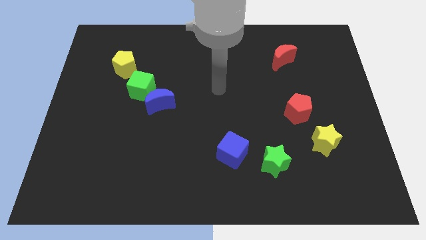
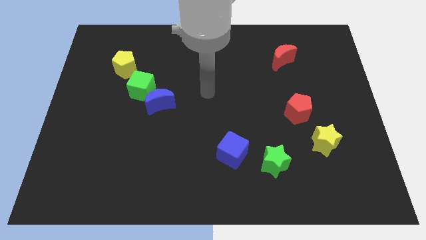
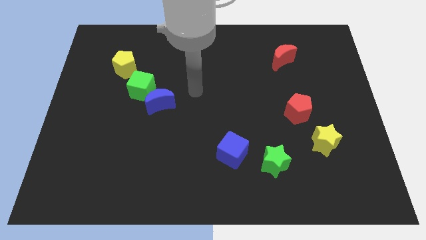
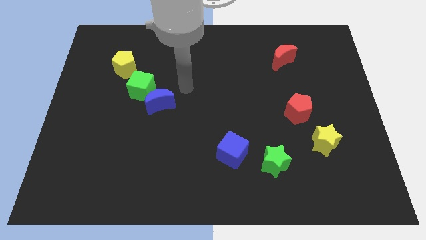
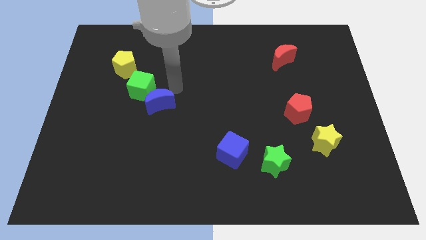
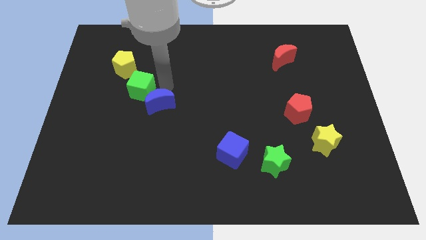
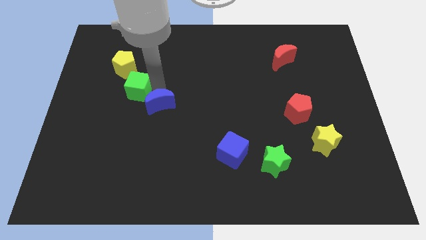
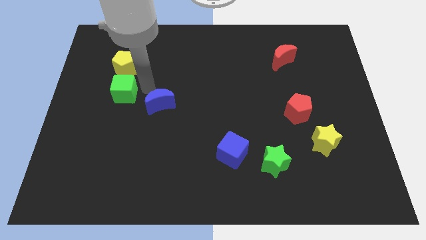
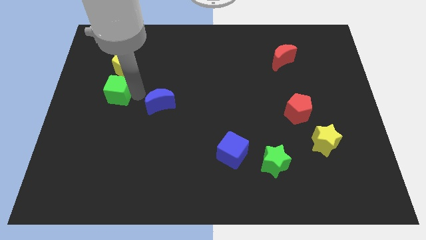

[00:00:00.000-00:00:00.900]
separate the blue moon from the green cube

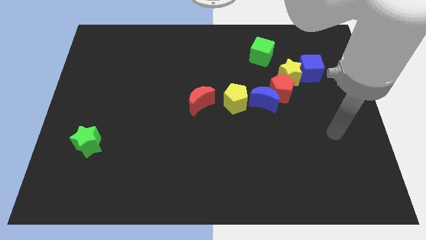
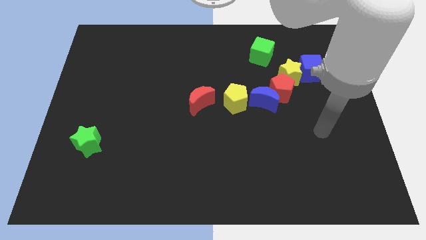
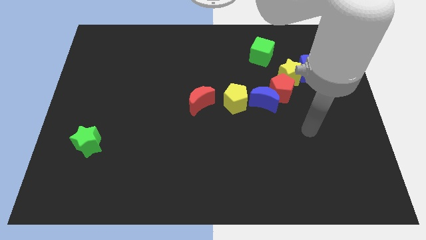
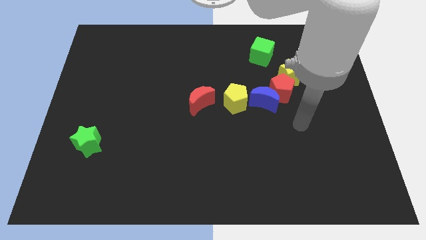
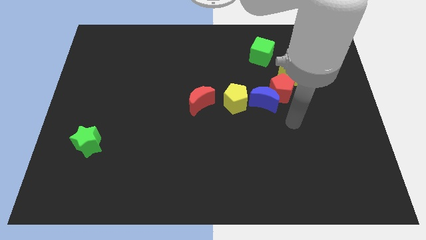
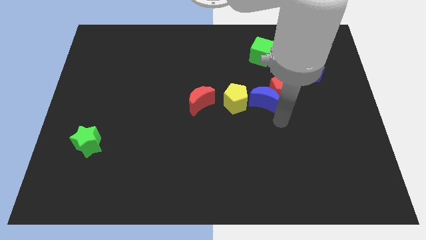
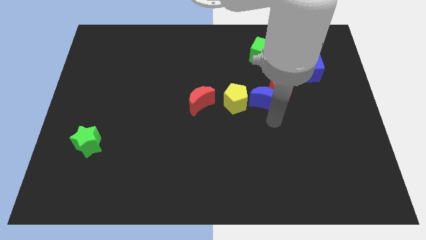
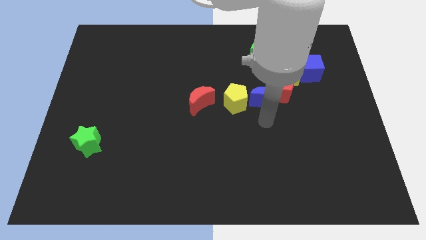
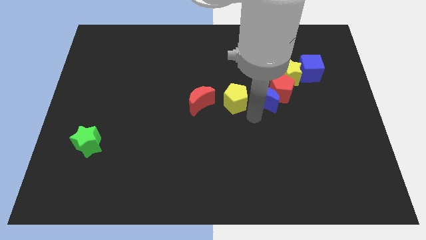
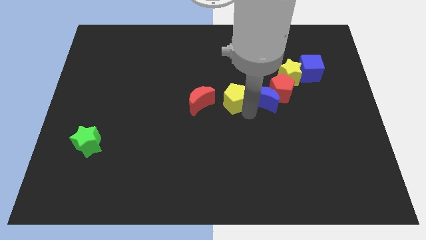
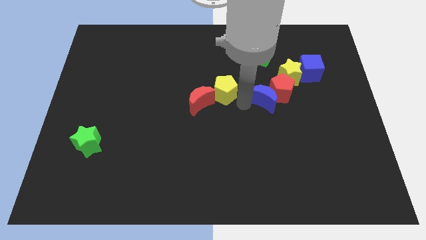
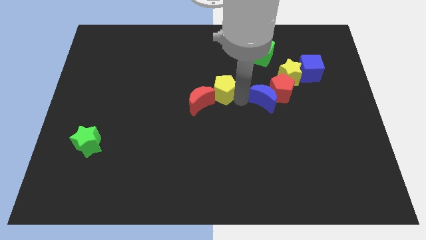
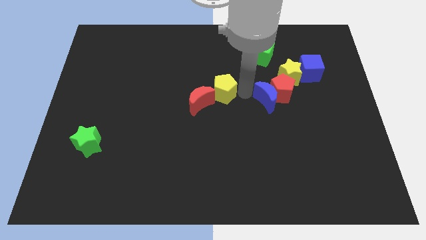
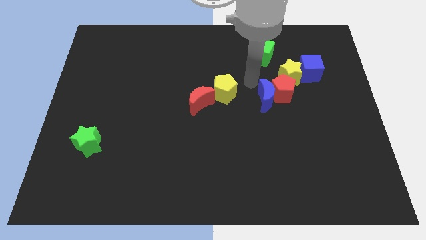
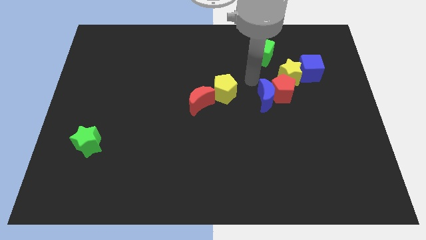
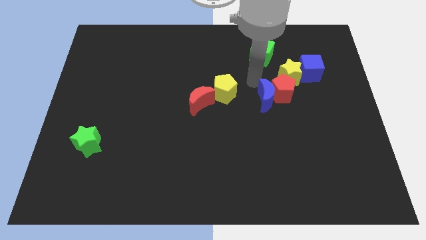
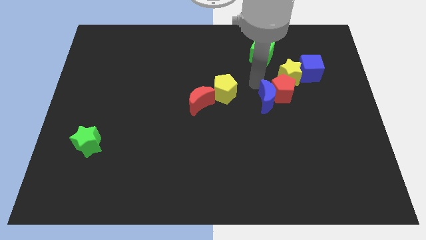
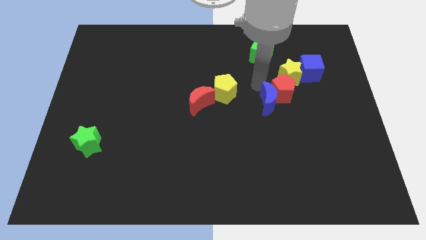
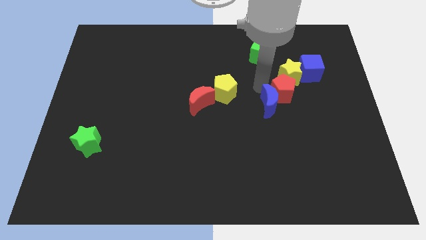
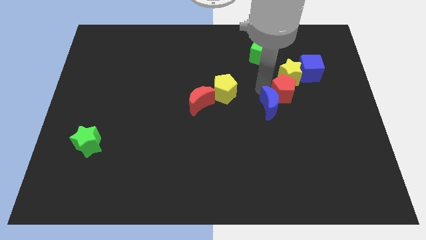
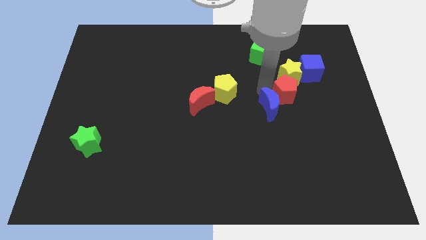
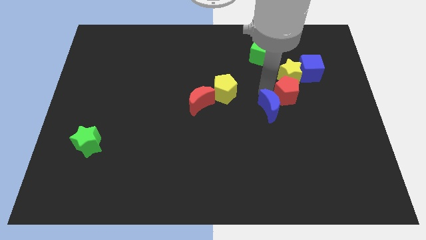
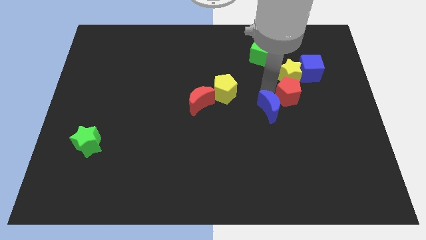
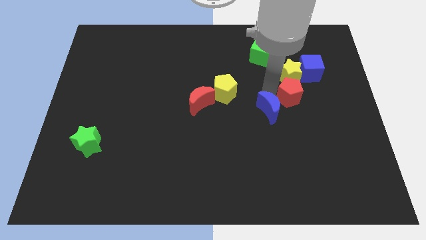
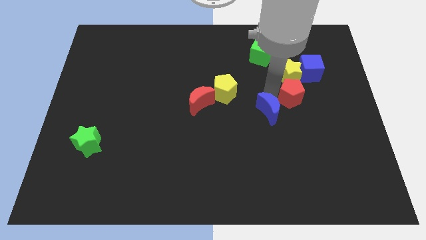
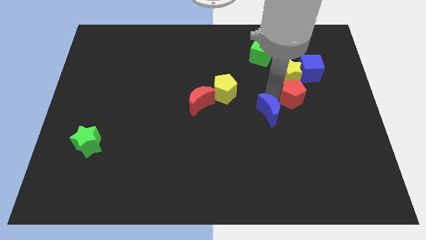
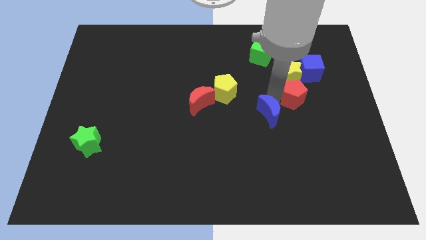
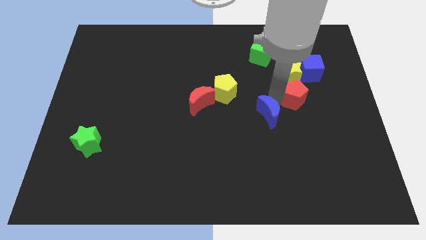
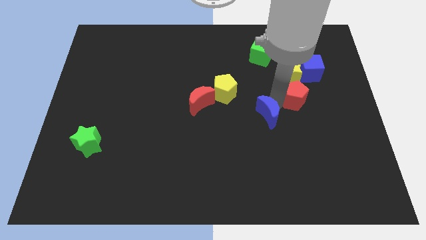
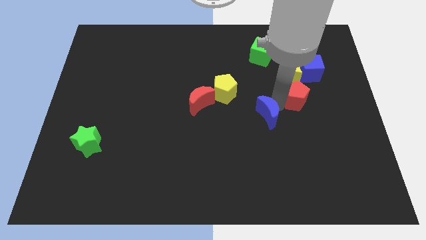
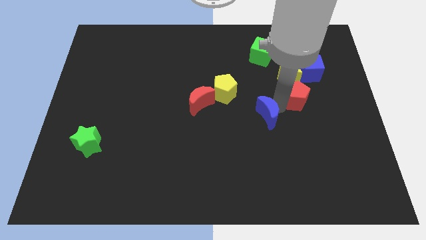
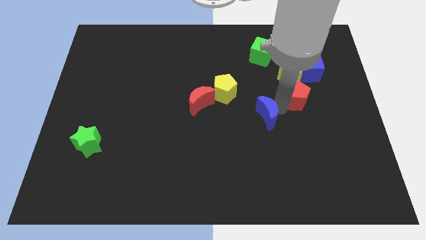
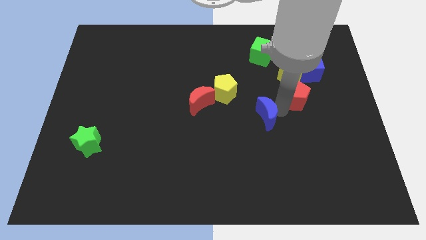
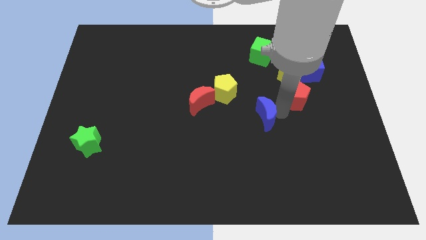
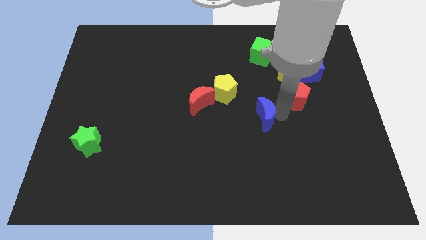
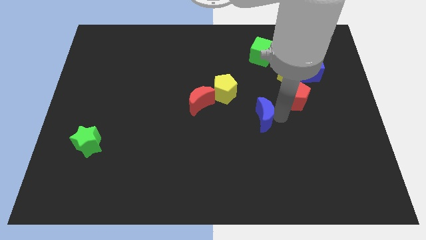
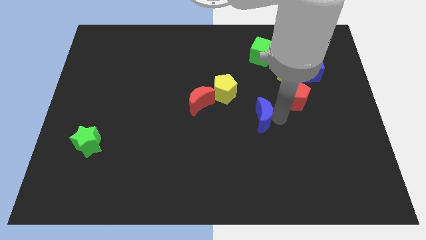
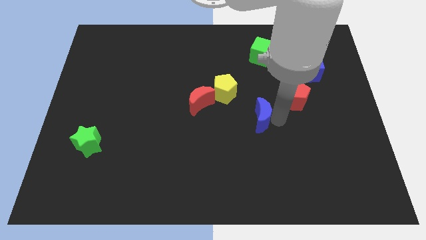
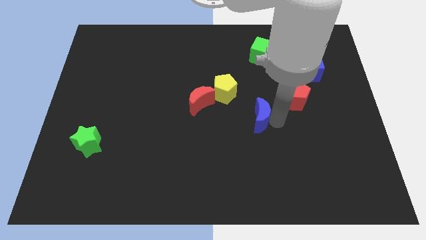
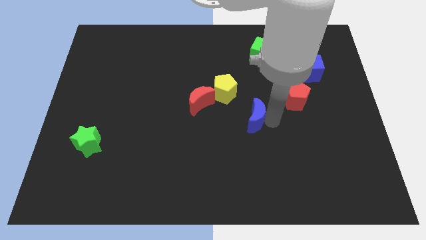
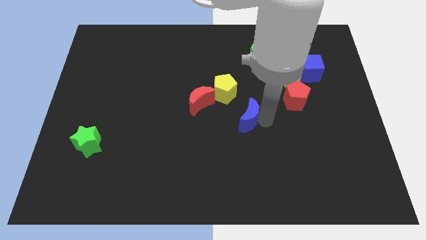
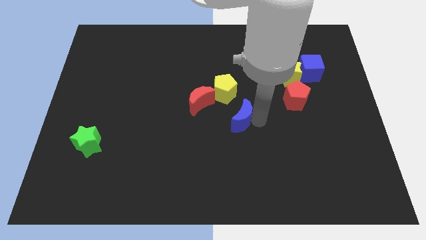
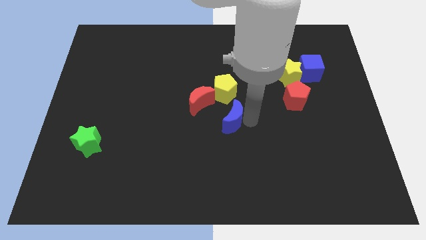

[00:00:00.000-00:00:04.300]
move the blue moon away from the red pentagon and yellow pentagon

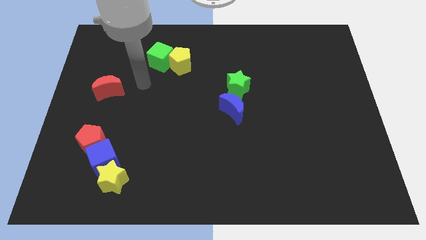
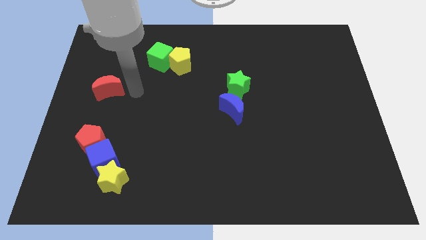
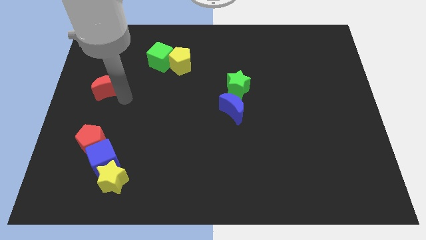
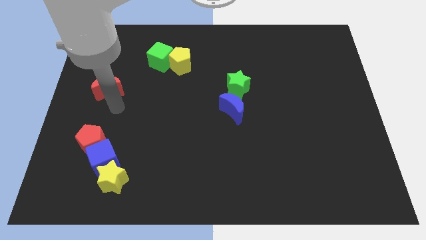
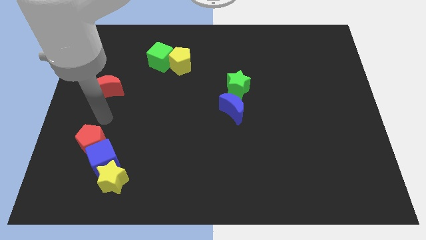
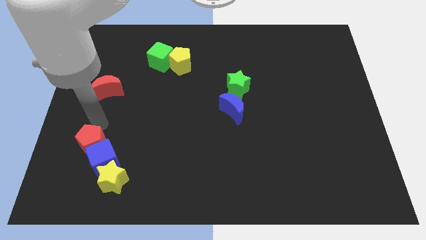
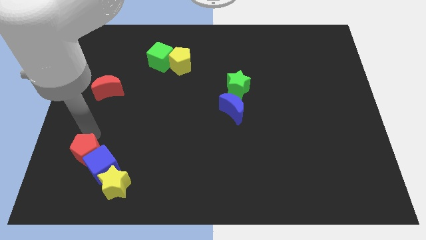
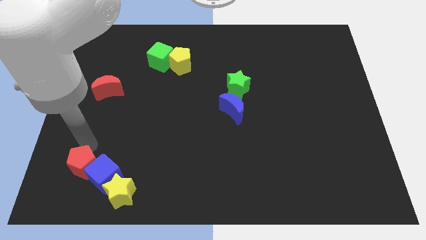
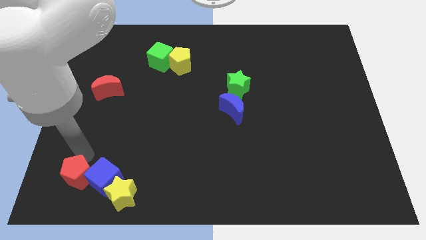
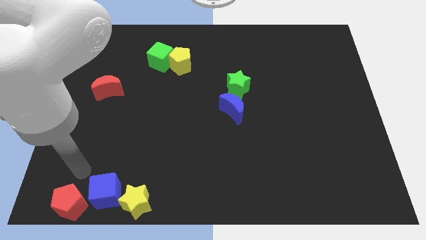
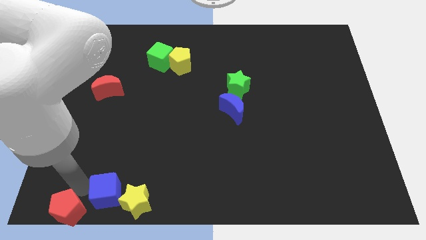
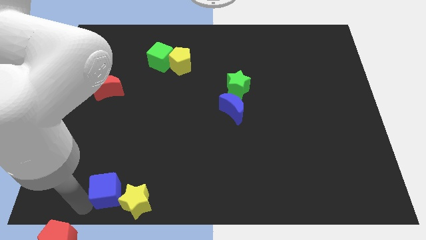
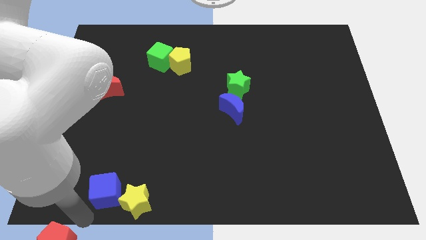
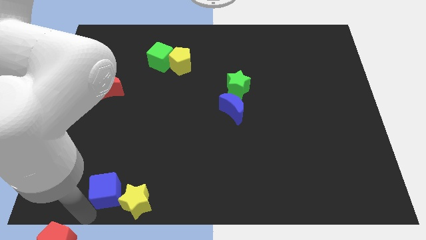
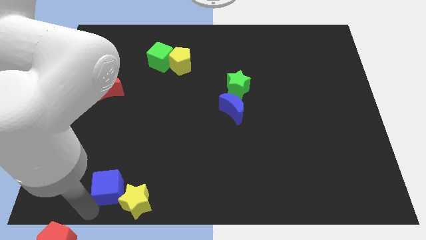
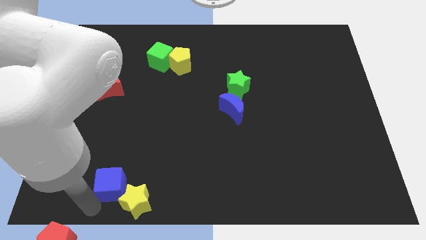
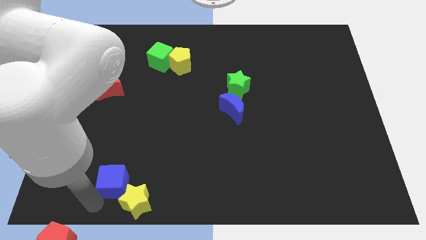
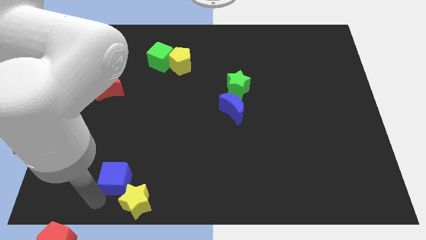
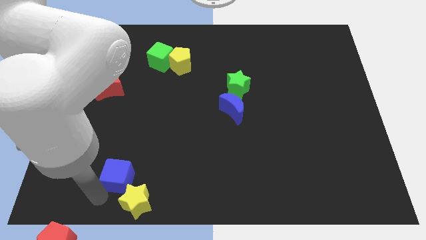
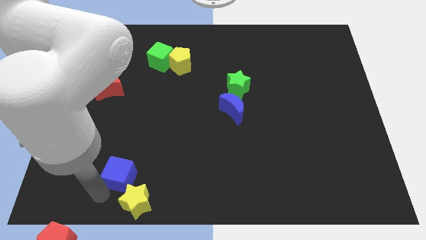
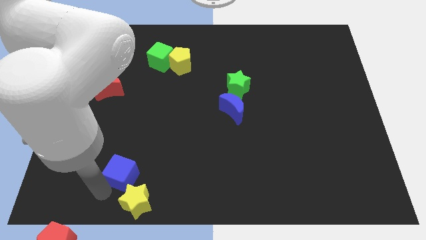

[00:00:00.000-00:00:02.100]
separate the blue cube from the yellow star and red pentagon

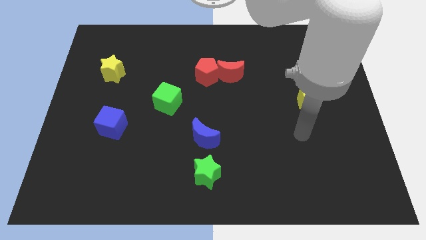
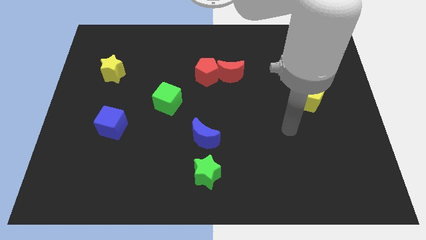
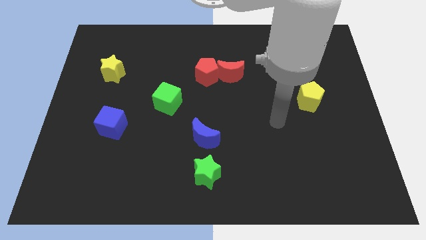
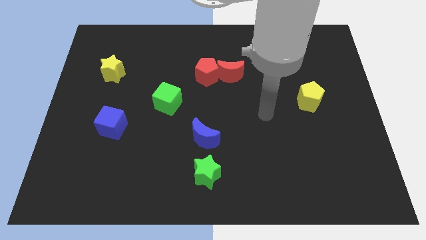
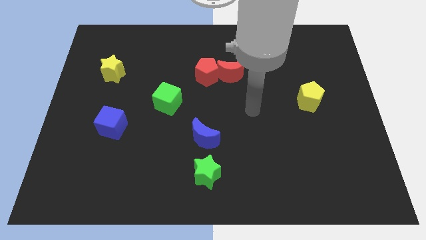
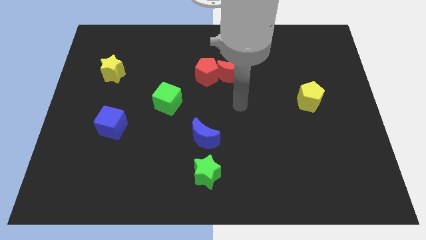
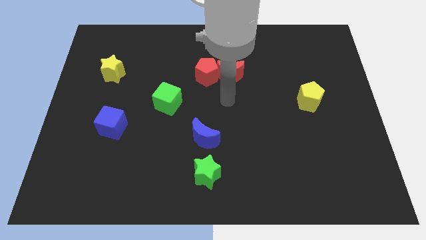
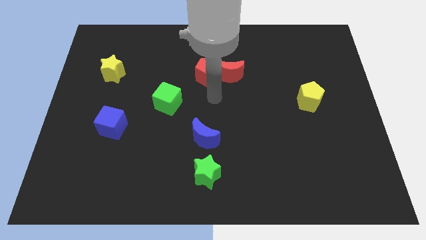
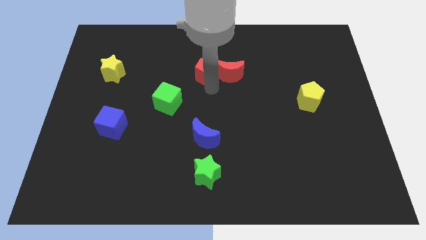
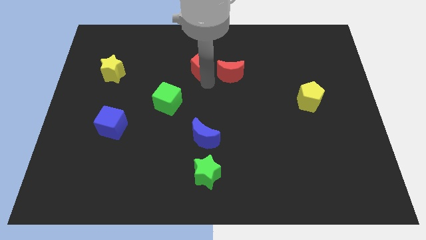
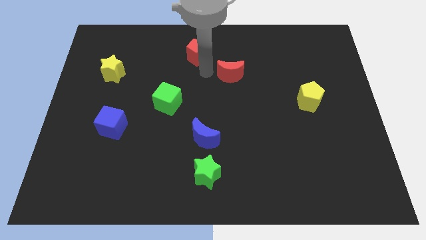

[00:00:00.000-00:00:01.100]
separate the red moon from the red pentagon

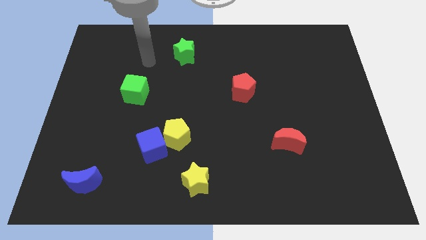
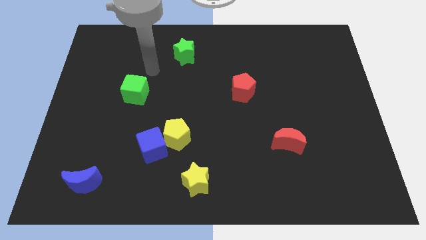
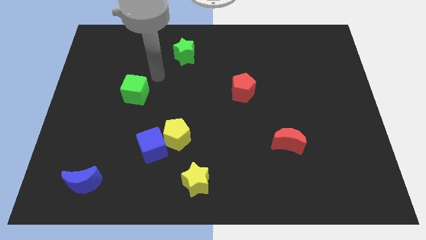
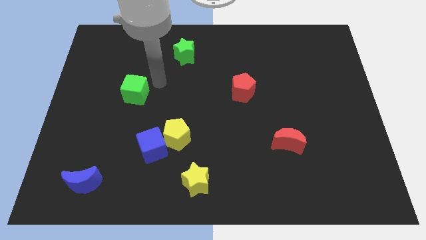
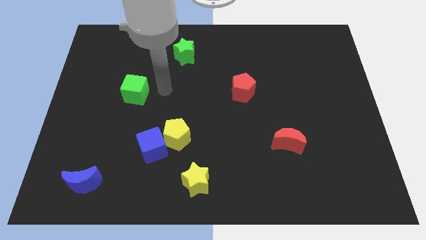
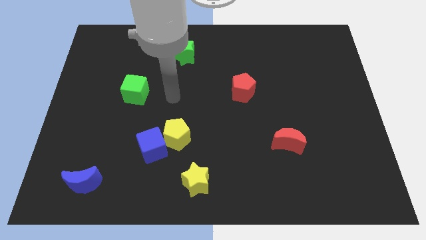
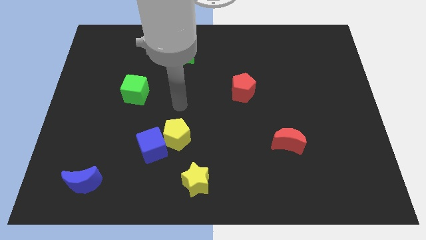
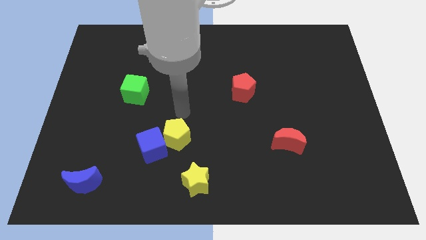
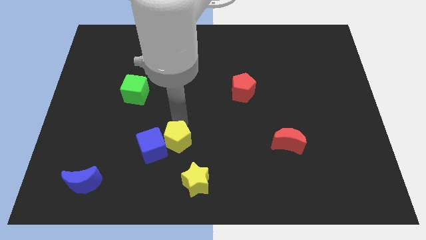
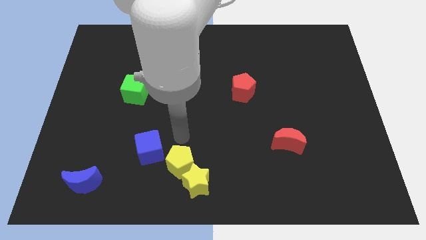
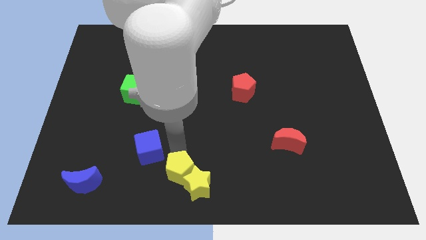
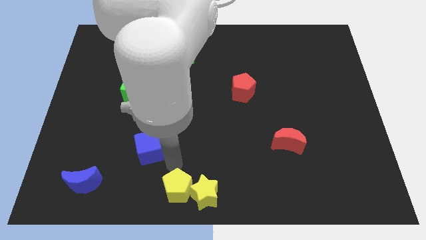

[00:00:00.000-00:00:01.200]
separate the blue cube from the yellow pentagon
